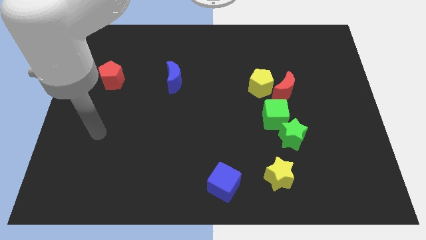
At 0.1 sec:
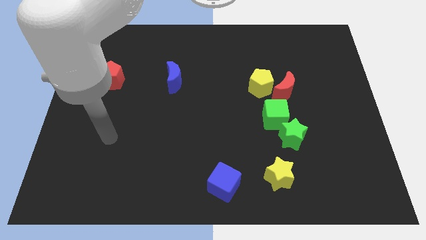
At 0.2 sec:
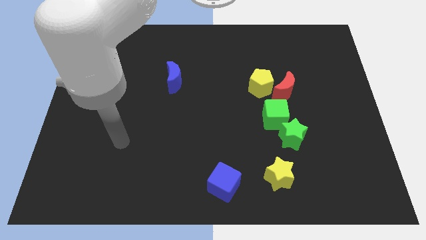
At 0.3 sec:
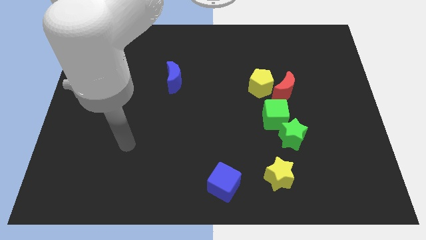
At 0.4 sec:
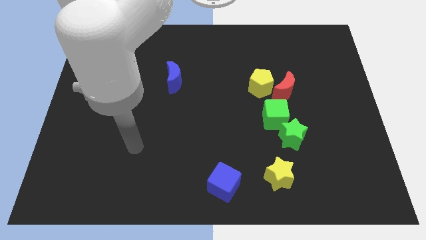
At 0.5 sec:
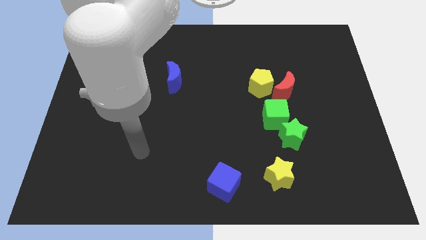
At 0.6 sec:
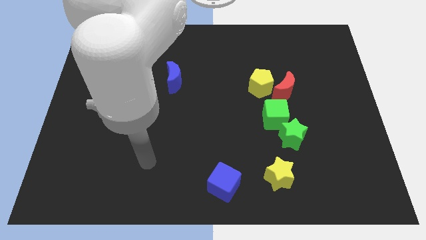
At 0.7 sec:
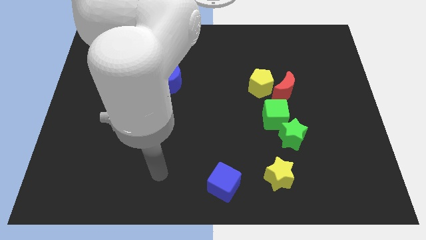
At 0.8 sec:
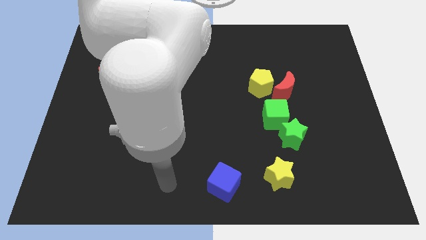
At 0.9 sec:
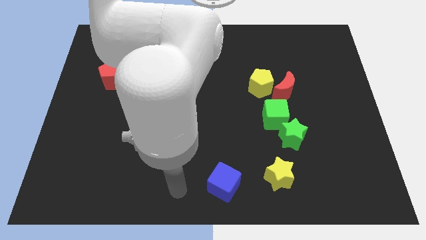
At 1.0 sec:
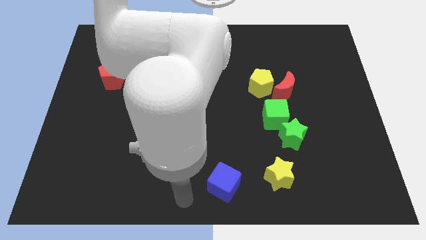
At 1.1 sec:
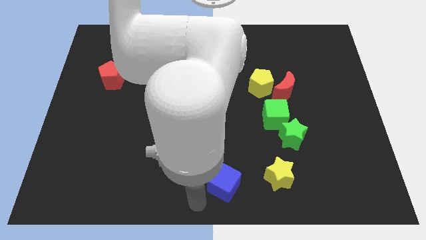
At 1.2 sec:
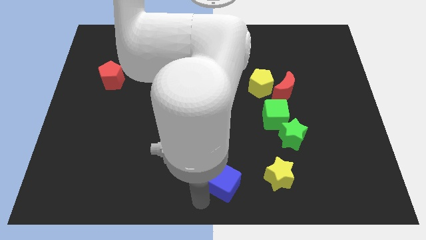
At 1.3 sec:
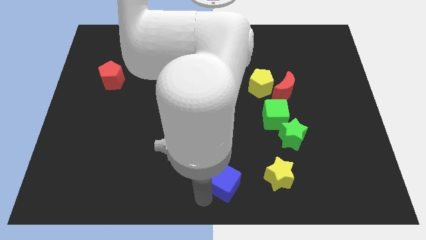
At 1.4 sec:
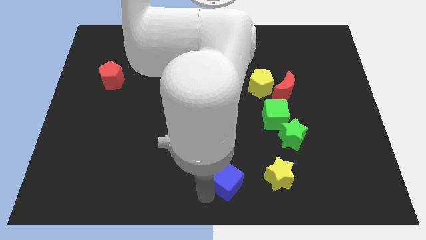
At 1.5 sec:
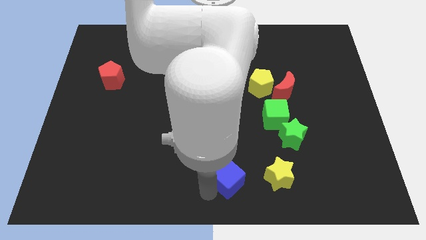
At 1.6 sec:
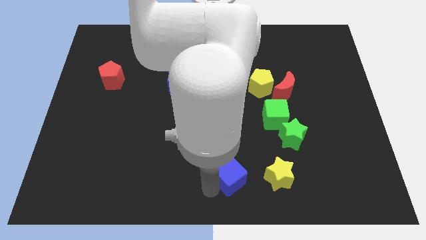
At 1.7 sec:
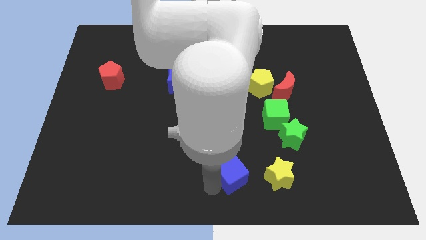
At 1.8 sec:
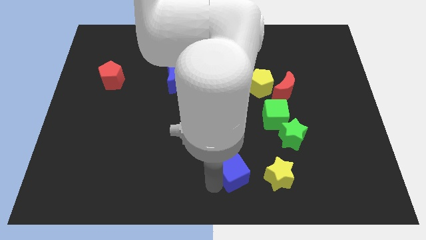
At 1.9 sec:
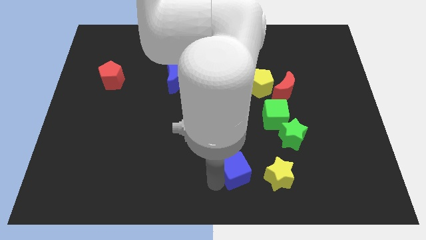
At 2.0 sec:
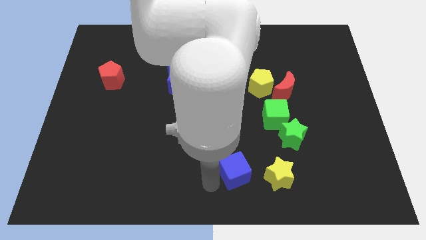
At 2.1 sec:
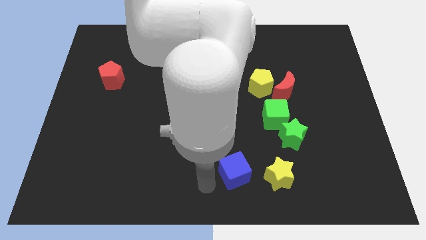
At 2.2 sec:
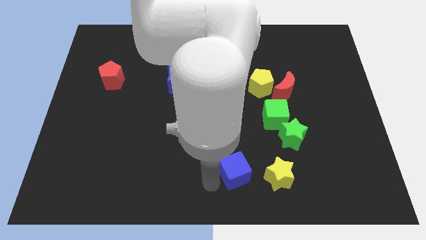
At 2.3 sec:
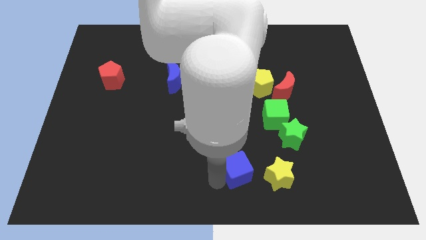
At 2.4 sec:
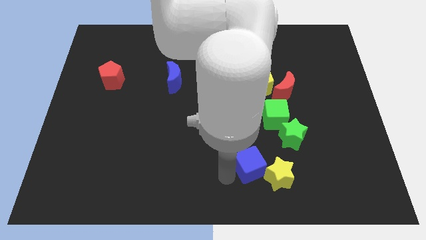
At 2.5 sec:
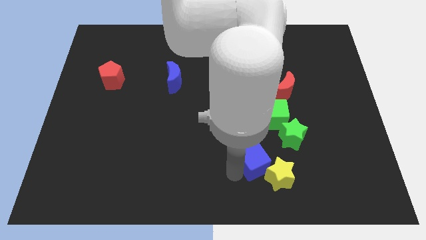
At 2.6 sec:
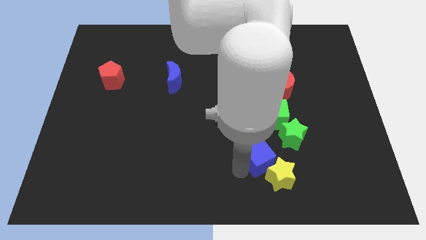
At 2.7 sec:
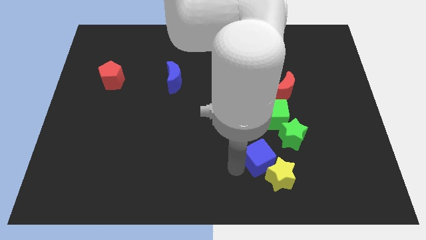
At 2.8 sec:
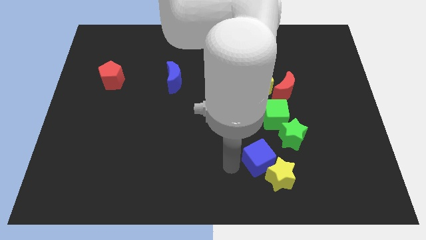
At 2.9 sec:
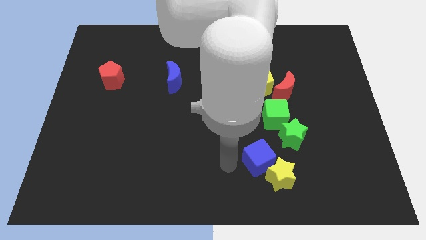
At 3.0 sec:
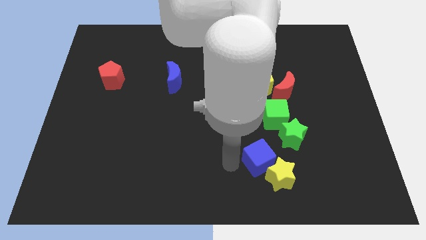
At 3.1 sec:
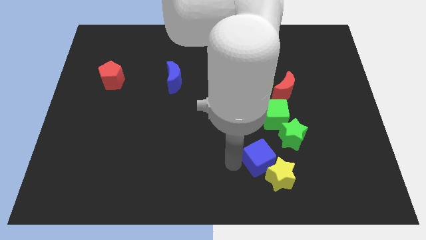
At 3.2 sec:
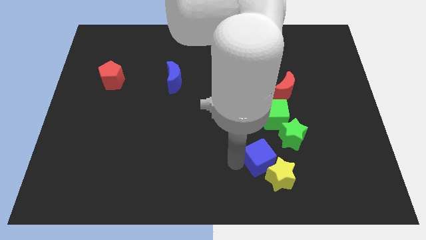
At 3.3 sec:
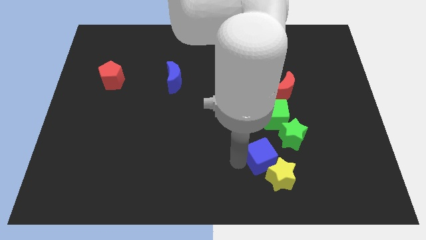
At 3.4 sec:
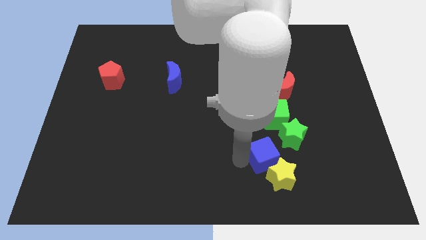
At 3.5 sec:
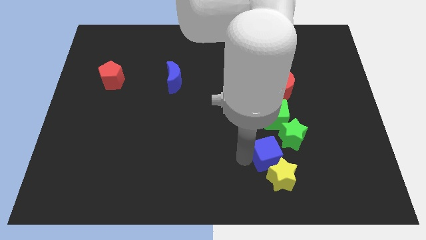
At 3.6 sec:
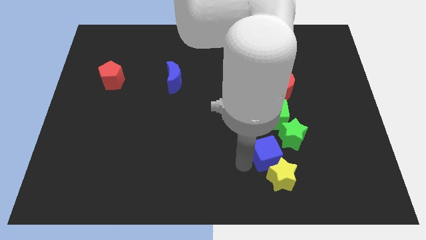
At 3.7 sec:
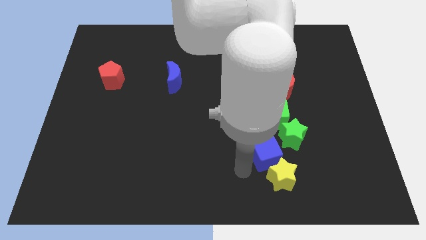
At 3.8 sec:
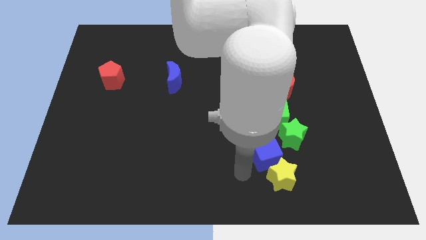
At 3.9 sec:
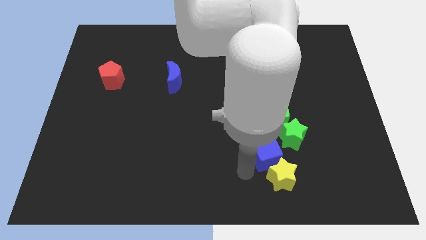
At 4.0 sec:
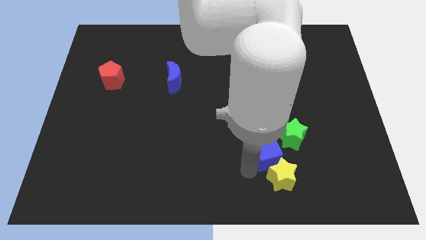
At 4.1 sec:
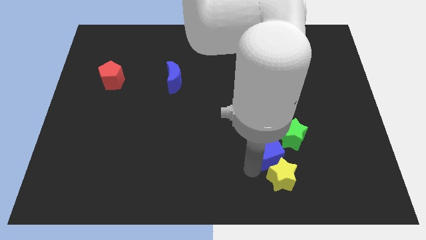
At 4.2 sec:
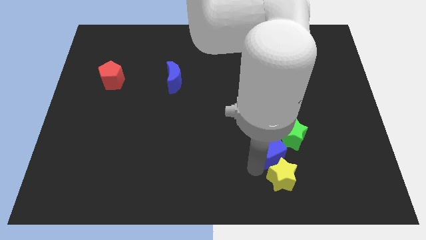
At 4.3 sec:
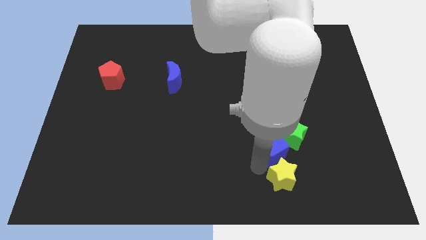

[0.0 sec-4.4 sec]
put the blue cube close to the green star

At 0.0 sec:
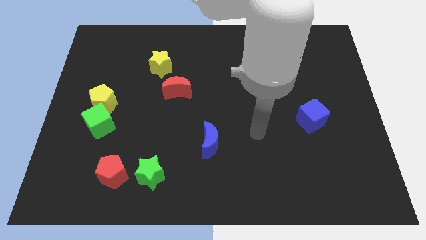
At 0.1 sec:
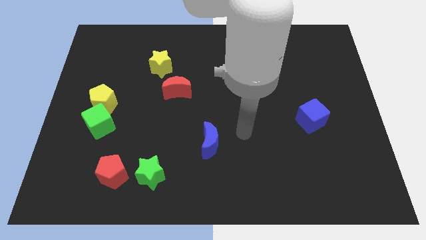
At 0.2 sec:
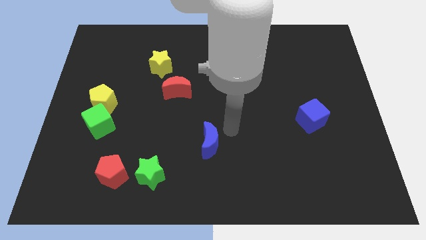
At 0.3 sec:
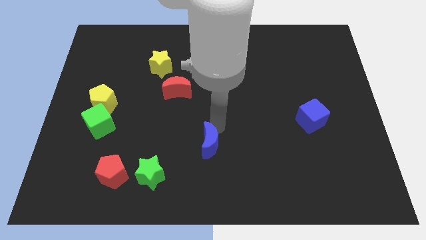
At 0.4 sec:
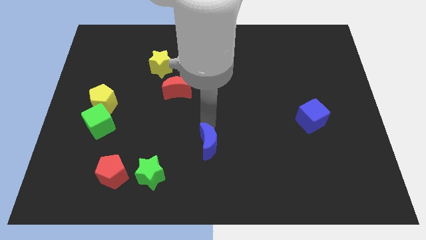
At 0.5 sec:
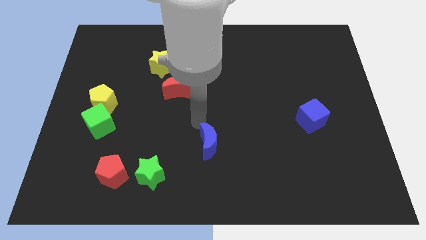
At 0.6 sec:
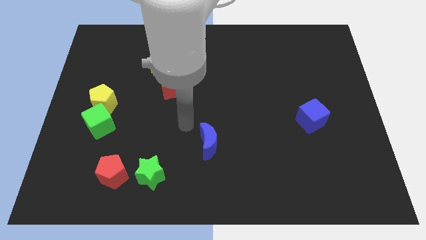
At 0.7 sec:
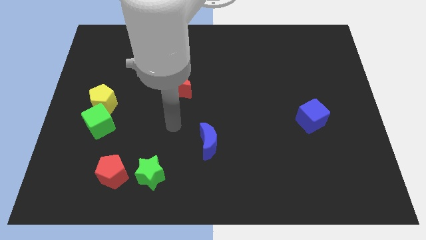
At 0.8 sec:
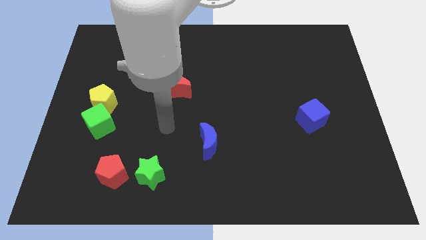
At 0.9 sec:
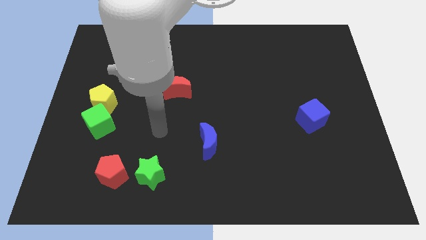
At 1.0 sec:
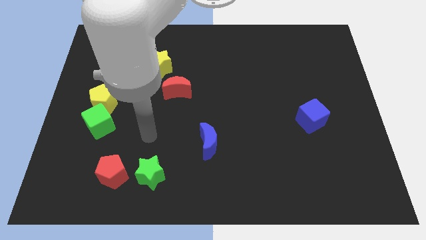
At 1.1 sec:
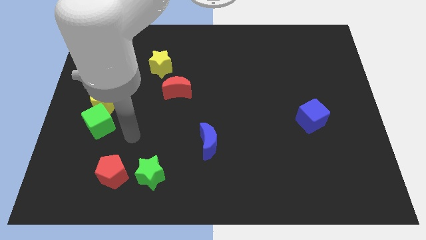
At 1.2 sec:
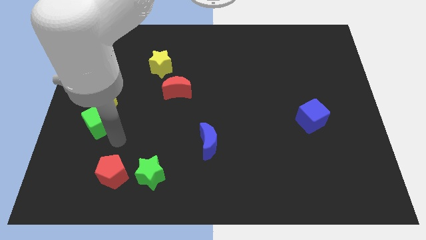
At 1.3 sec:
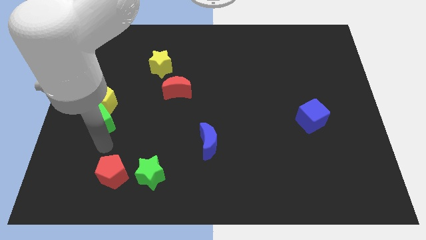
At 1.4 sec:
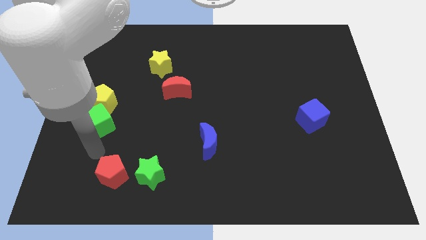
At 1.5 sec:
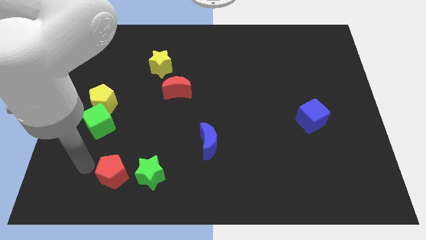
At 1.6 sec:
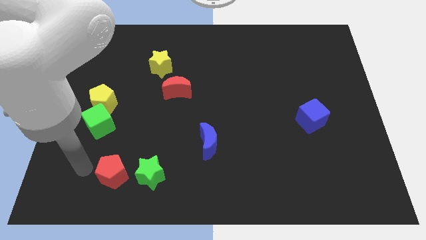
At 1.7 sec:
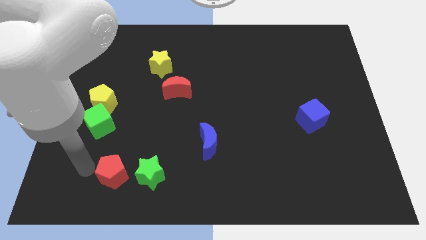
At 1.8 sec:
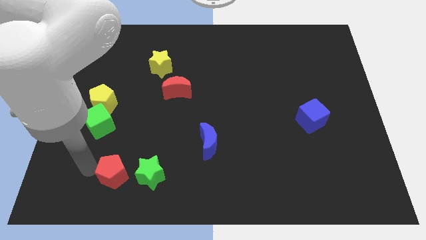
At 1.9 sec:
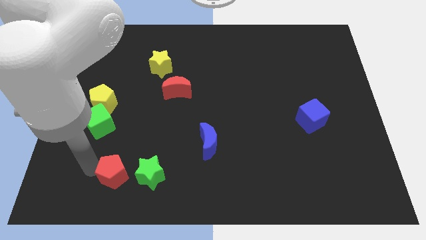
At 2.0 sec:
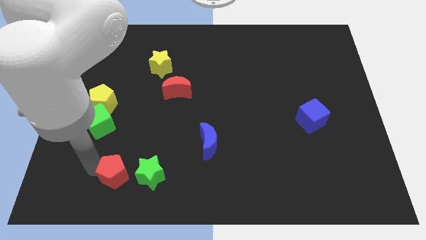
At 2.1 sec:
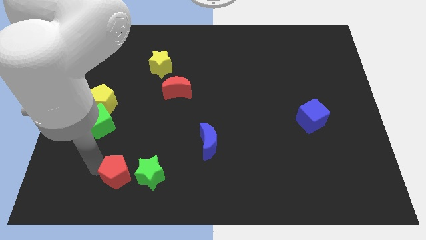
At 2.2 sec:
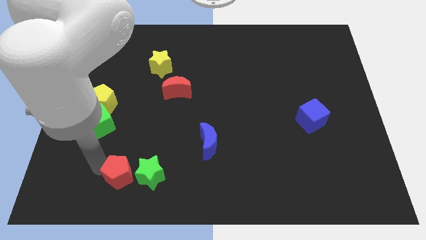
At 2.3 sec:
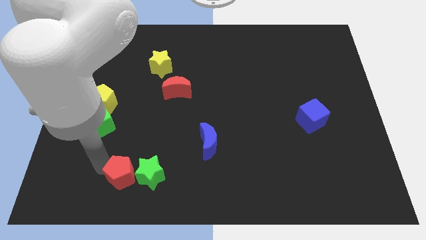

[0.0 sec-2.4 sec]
move the red pentagon to the green star

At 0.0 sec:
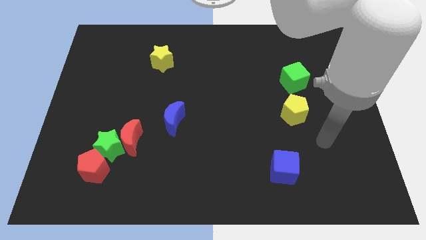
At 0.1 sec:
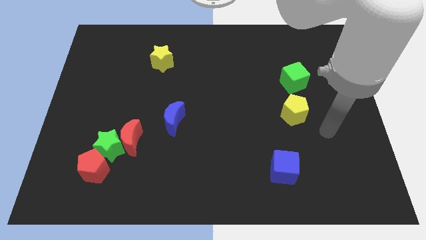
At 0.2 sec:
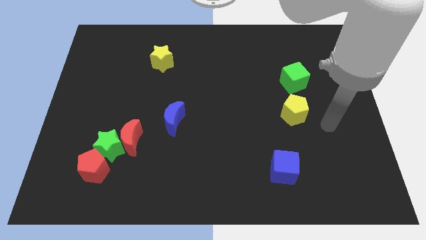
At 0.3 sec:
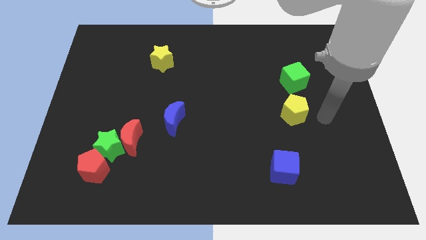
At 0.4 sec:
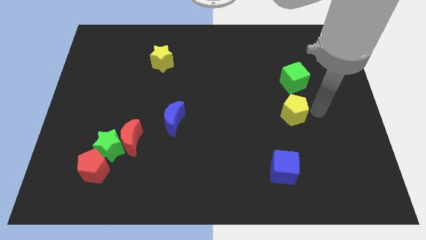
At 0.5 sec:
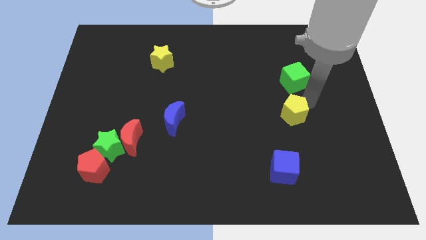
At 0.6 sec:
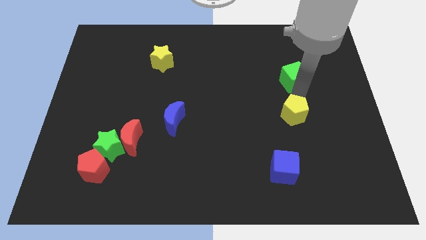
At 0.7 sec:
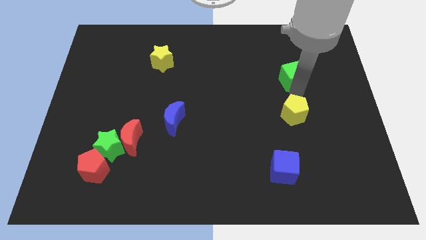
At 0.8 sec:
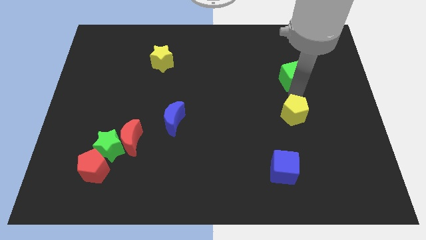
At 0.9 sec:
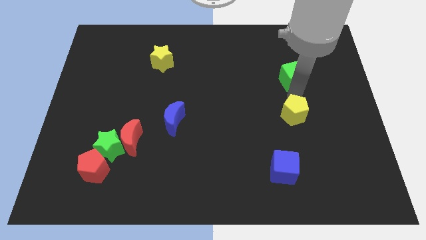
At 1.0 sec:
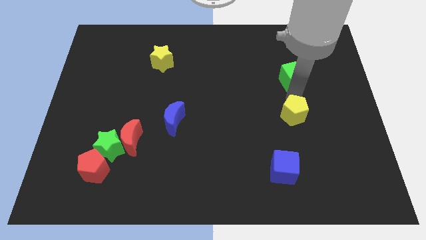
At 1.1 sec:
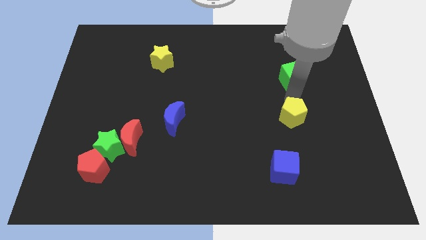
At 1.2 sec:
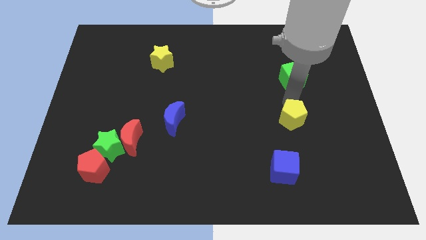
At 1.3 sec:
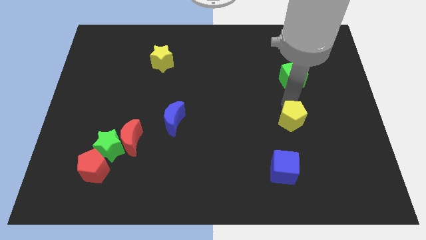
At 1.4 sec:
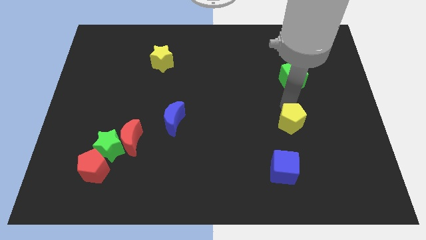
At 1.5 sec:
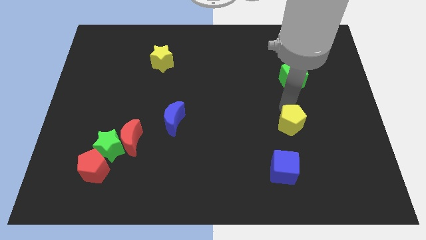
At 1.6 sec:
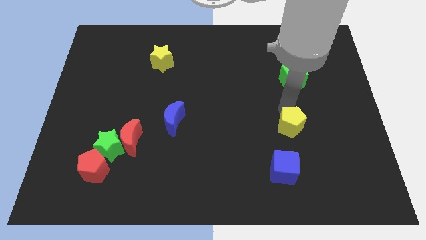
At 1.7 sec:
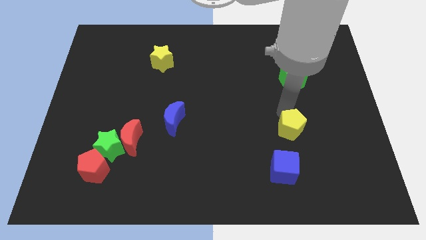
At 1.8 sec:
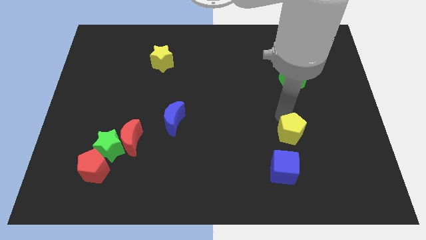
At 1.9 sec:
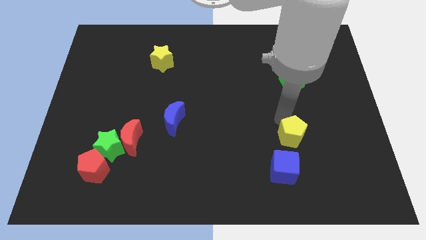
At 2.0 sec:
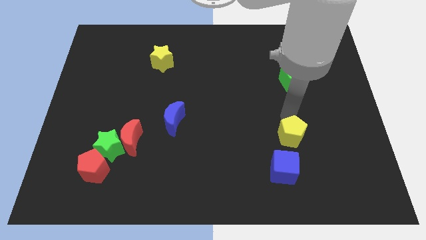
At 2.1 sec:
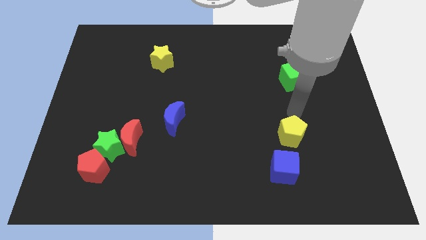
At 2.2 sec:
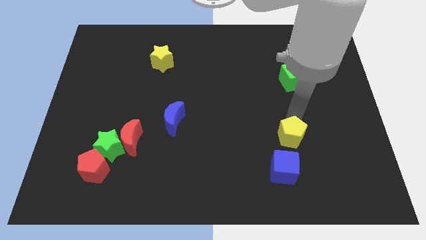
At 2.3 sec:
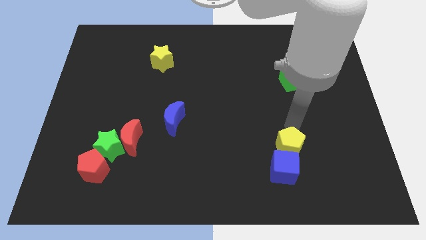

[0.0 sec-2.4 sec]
put the yellow pentagon close to the blue cube
